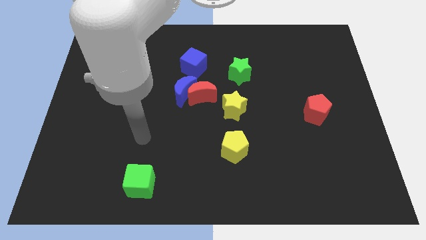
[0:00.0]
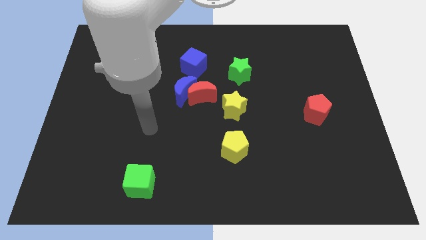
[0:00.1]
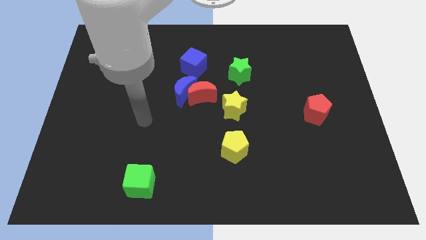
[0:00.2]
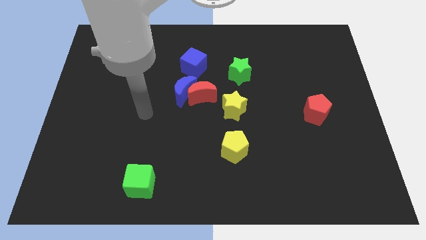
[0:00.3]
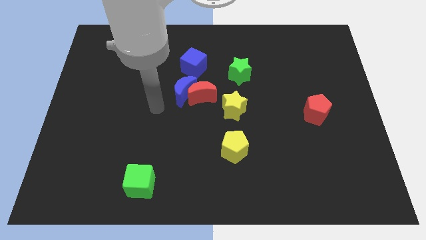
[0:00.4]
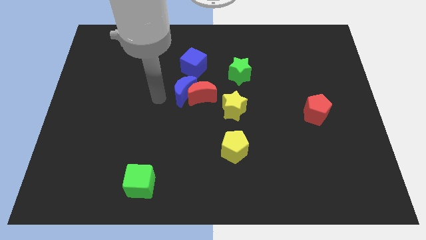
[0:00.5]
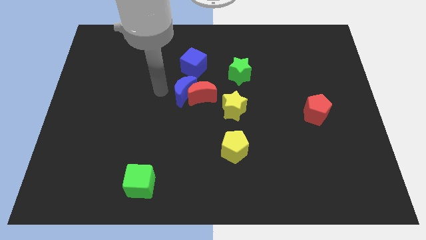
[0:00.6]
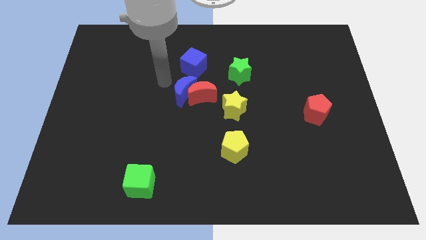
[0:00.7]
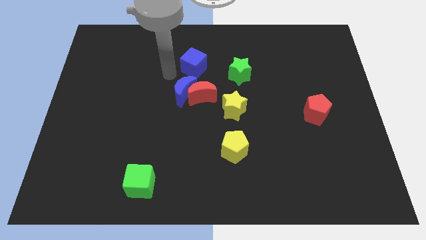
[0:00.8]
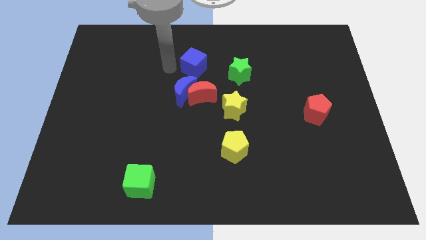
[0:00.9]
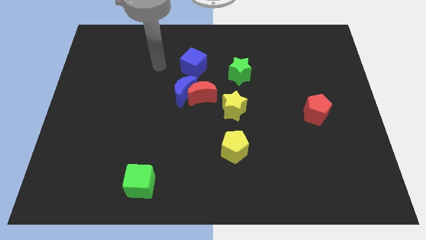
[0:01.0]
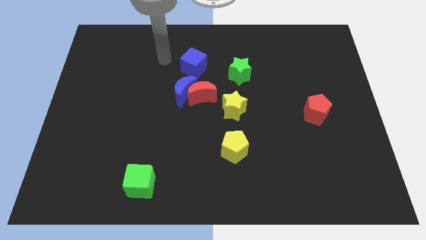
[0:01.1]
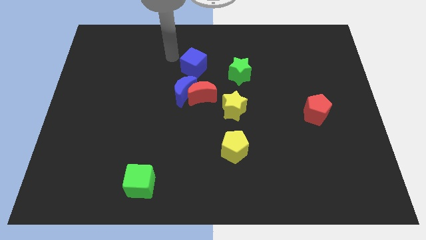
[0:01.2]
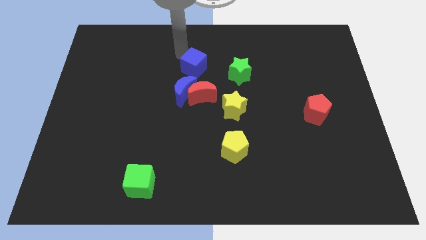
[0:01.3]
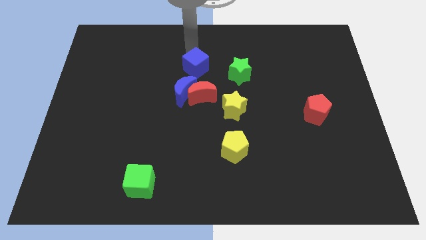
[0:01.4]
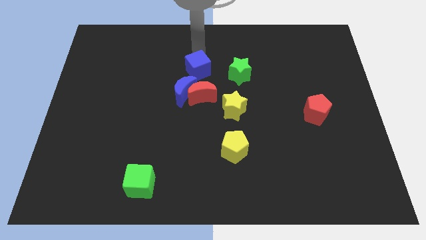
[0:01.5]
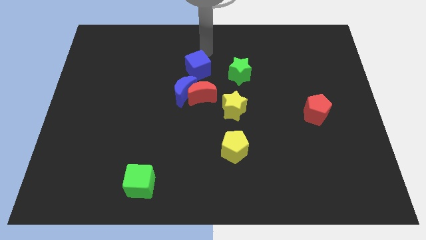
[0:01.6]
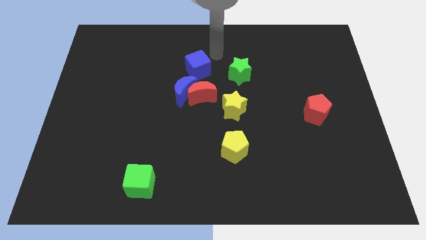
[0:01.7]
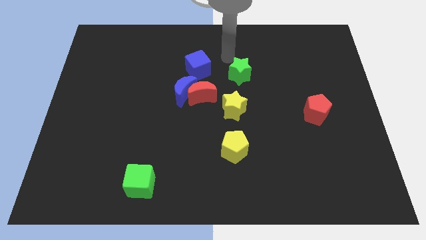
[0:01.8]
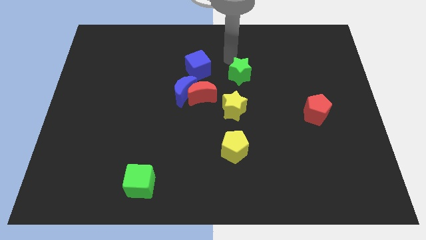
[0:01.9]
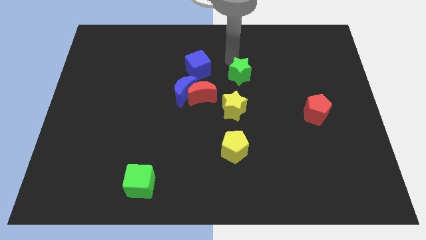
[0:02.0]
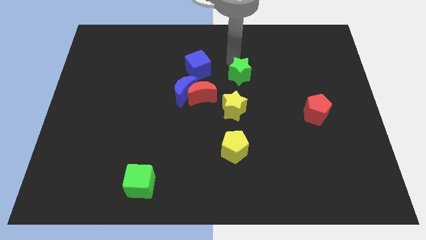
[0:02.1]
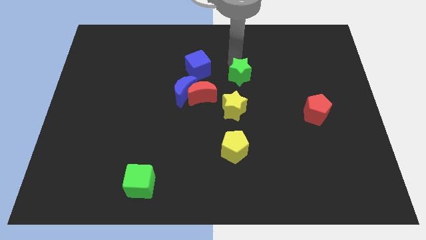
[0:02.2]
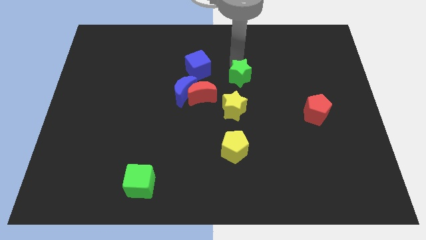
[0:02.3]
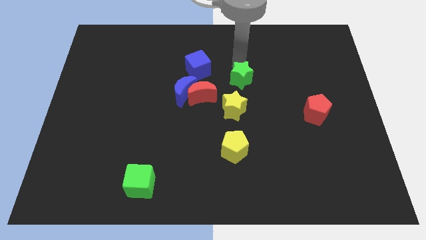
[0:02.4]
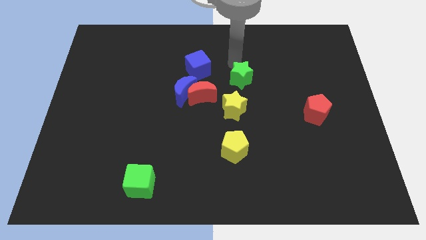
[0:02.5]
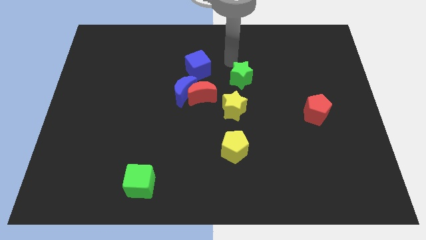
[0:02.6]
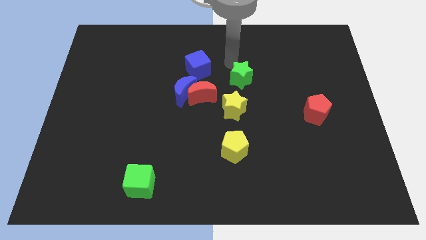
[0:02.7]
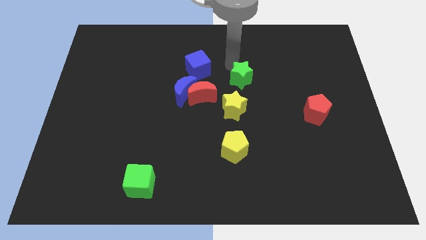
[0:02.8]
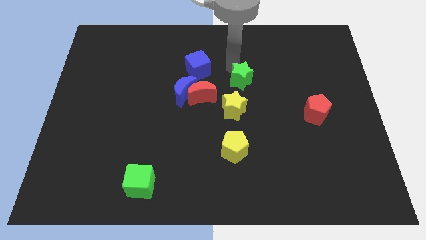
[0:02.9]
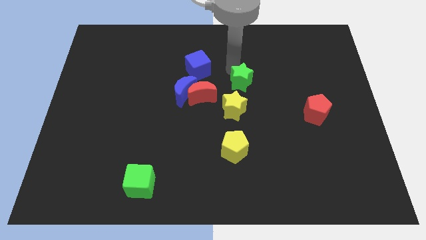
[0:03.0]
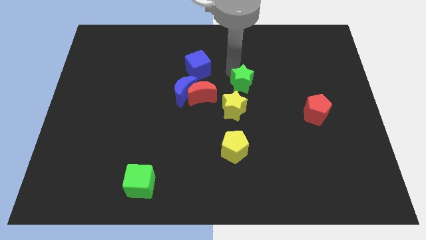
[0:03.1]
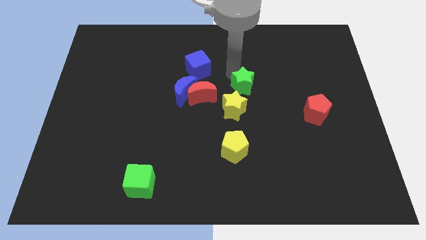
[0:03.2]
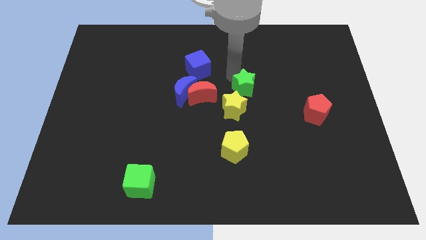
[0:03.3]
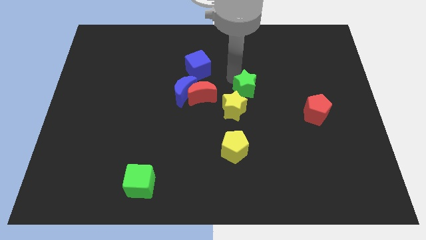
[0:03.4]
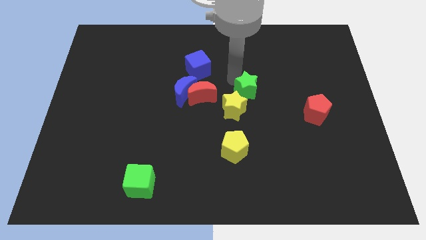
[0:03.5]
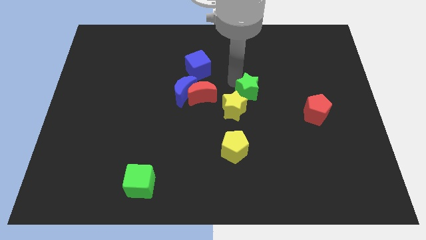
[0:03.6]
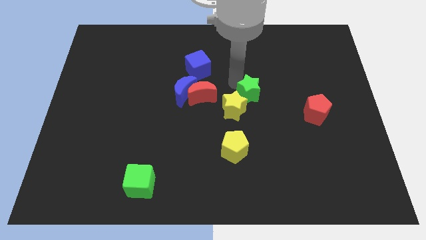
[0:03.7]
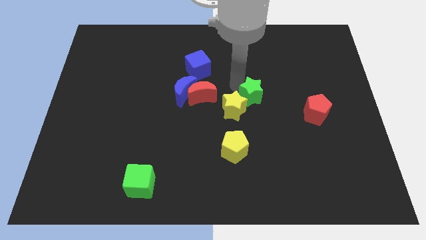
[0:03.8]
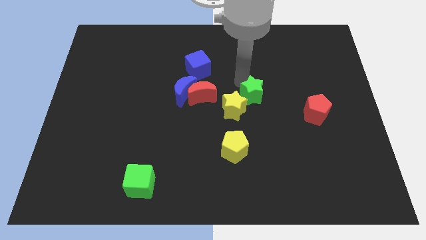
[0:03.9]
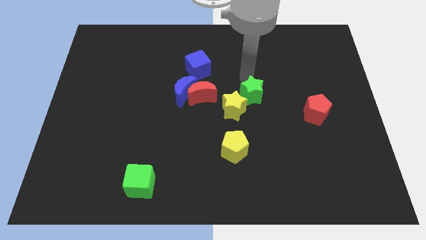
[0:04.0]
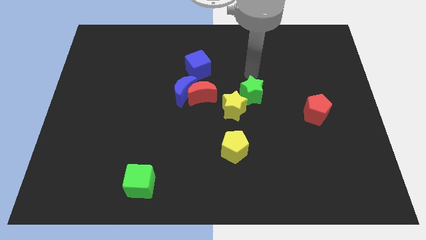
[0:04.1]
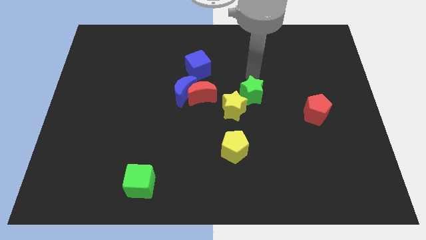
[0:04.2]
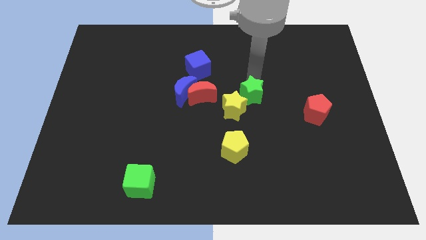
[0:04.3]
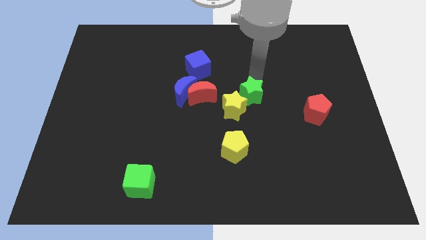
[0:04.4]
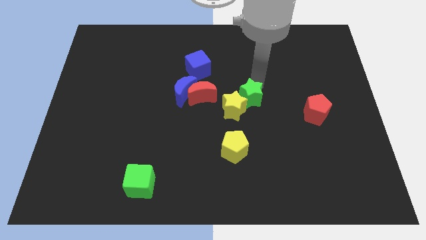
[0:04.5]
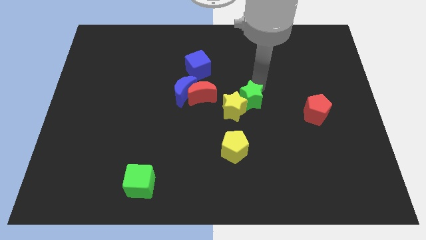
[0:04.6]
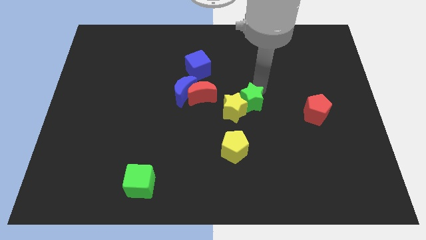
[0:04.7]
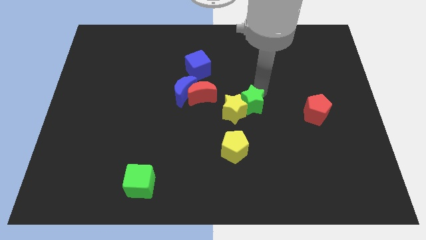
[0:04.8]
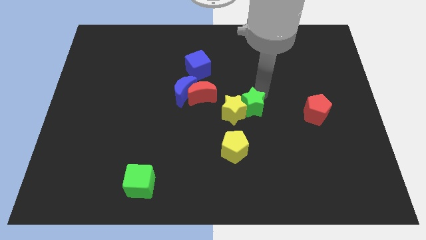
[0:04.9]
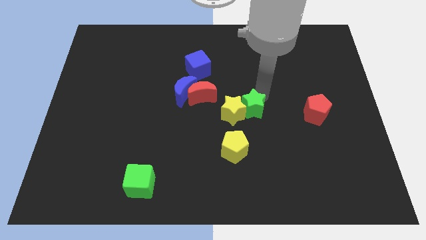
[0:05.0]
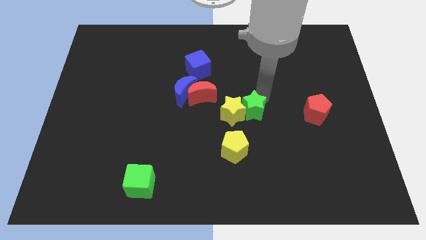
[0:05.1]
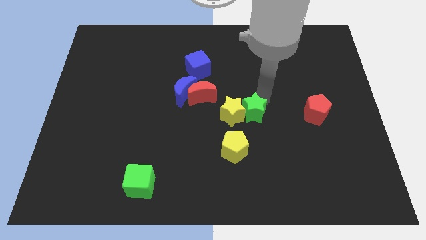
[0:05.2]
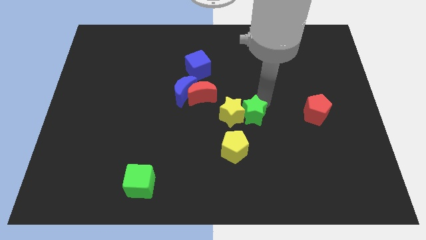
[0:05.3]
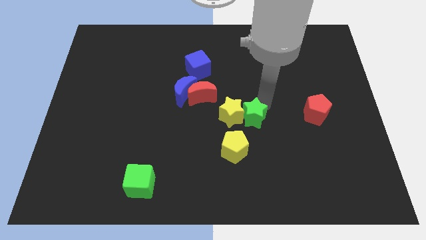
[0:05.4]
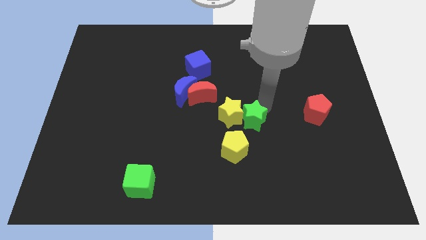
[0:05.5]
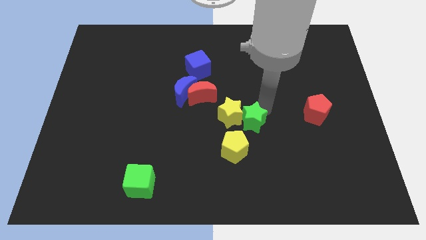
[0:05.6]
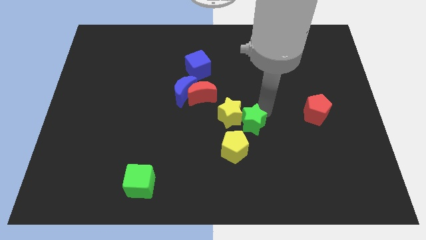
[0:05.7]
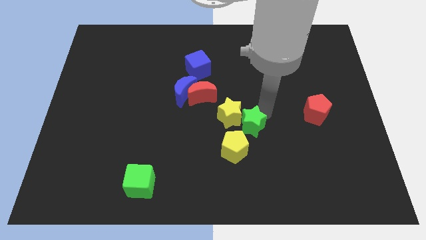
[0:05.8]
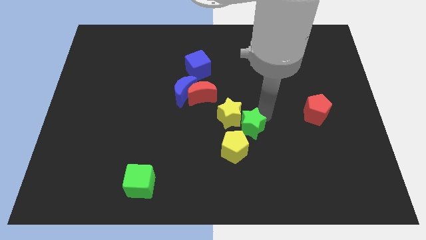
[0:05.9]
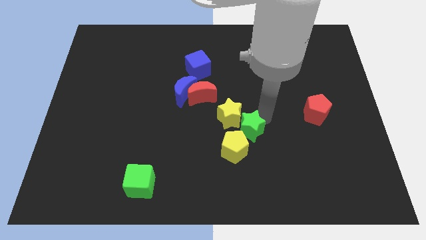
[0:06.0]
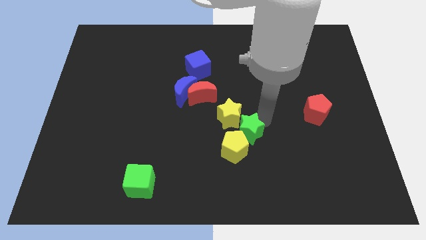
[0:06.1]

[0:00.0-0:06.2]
move the green star towards the yellow pentagon

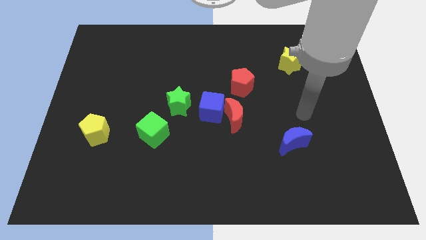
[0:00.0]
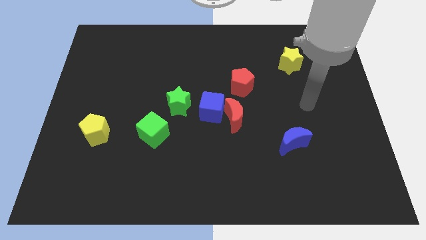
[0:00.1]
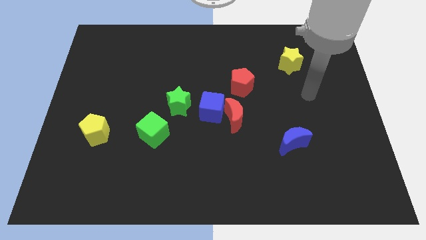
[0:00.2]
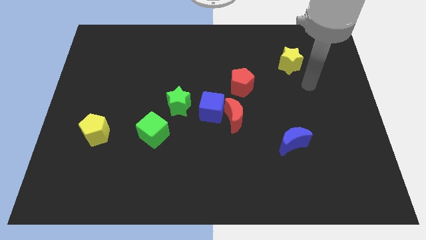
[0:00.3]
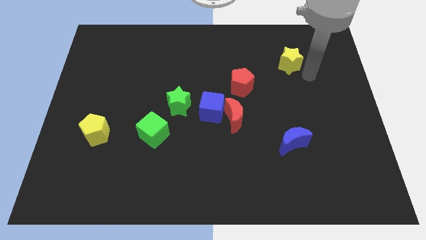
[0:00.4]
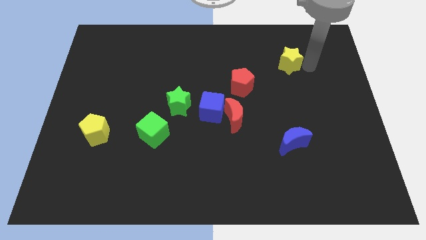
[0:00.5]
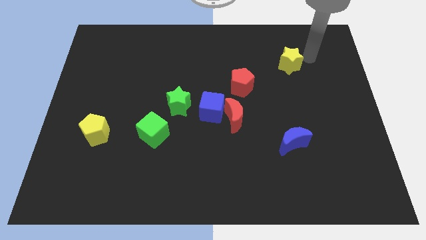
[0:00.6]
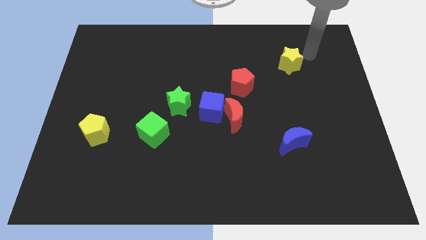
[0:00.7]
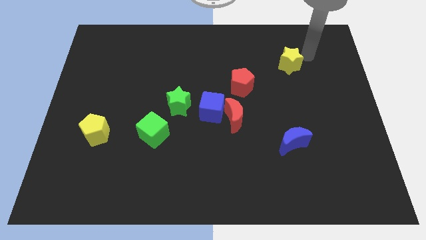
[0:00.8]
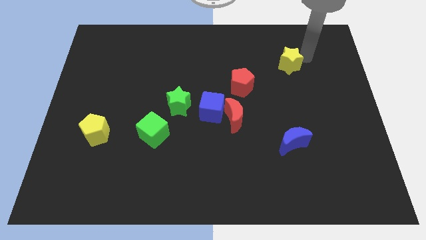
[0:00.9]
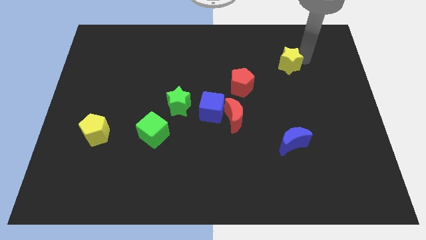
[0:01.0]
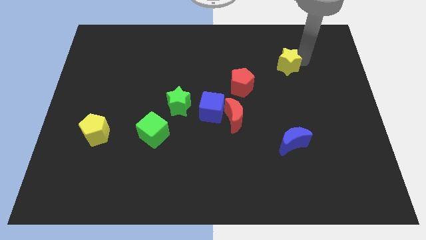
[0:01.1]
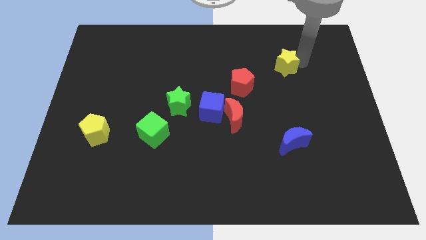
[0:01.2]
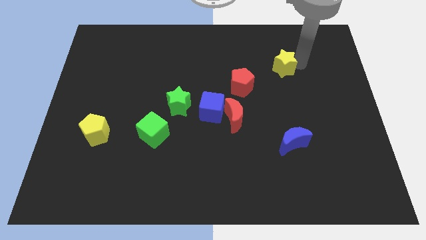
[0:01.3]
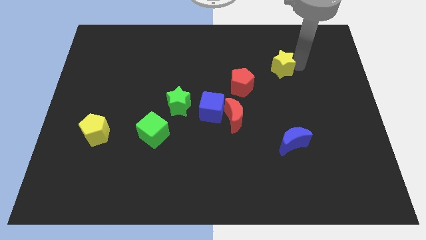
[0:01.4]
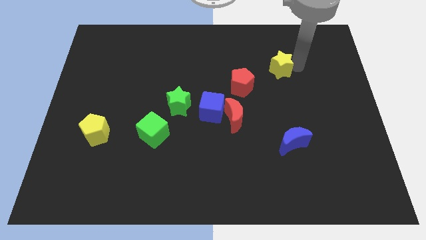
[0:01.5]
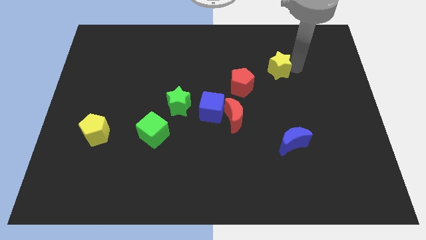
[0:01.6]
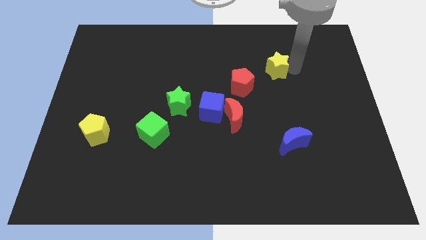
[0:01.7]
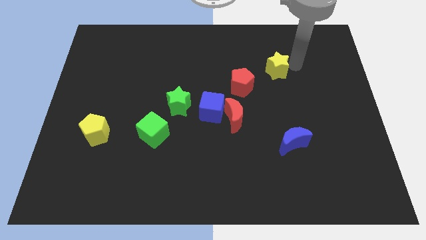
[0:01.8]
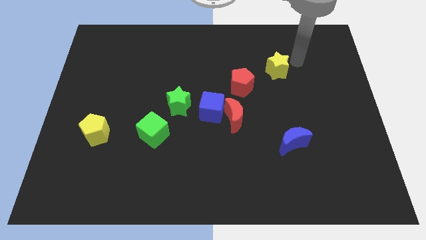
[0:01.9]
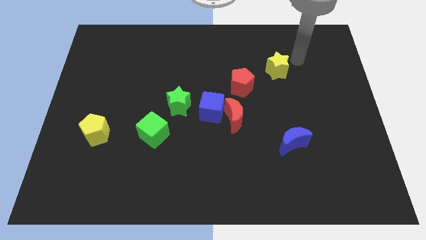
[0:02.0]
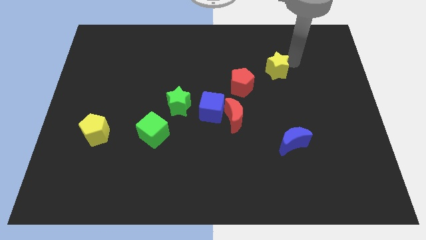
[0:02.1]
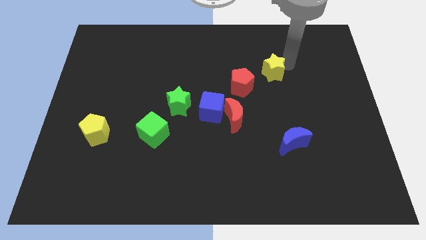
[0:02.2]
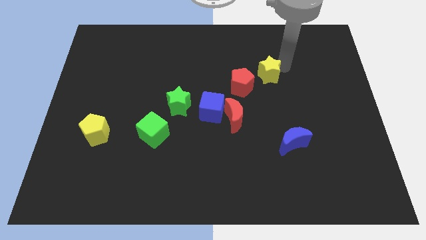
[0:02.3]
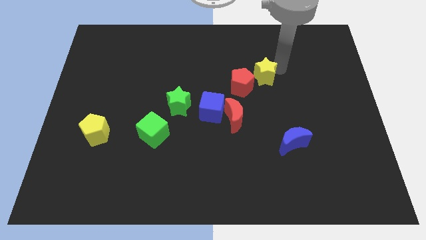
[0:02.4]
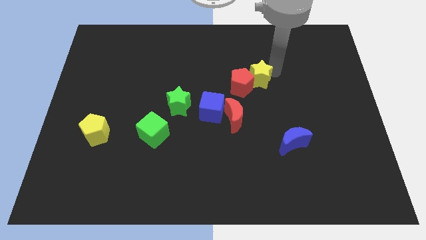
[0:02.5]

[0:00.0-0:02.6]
move the yellow star close to the red pentagon
